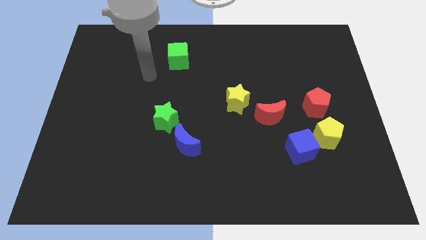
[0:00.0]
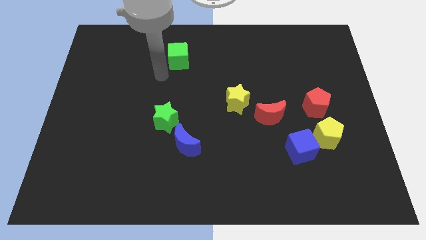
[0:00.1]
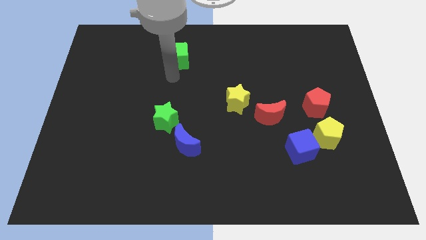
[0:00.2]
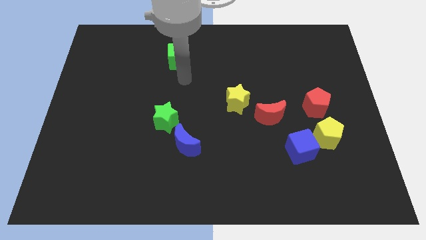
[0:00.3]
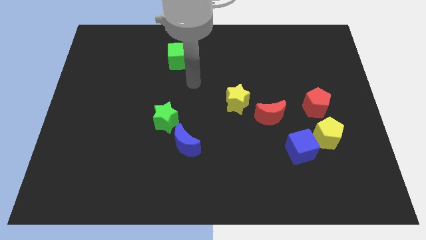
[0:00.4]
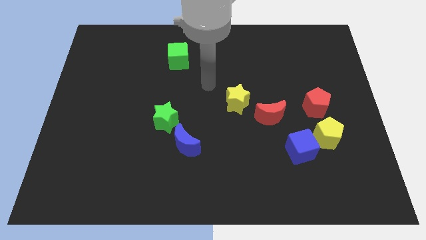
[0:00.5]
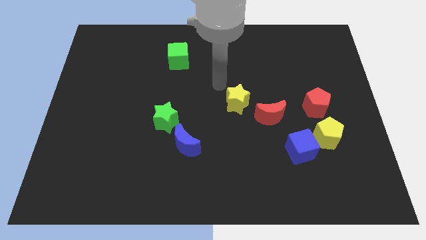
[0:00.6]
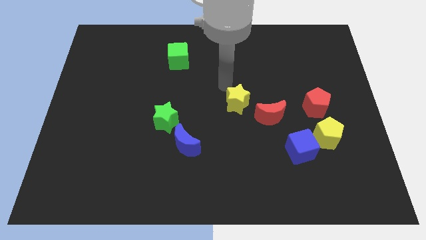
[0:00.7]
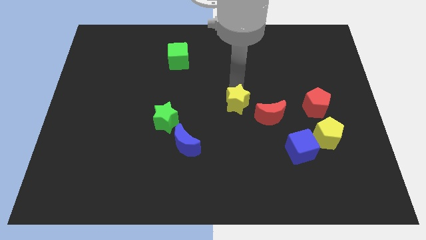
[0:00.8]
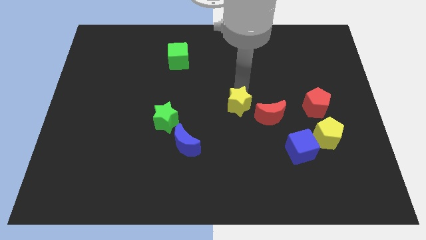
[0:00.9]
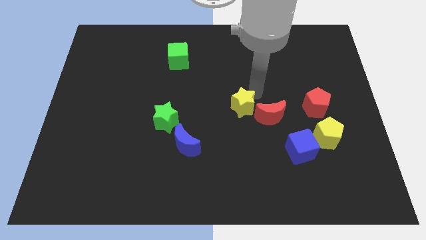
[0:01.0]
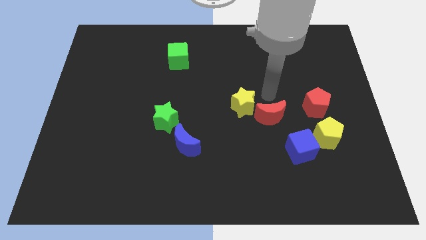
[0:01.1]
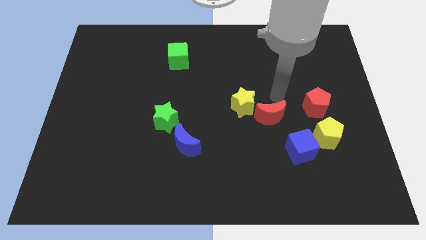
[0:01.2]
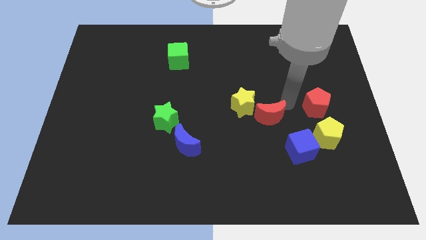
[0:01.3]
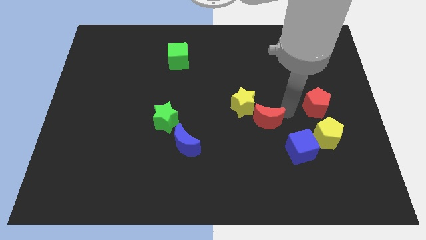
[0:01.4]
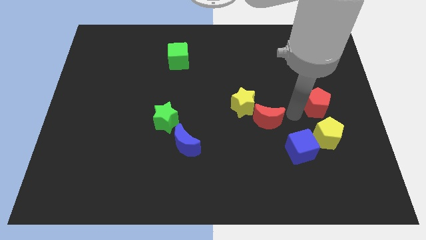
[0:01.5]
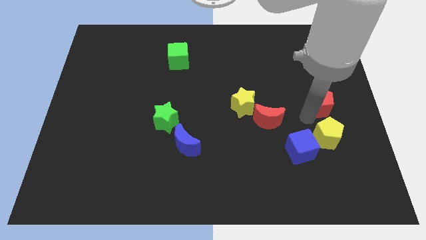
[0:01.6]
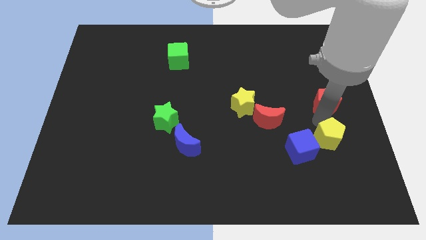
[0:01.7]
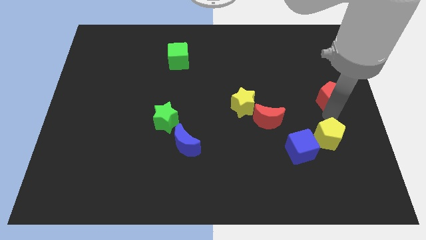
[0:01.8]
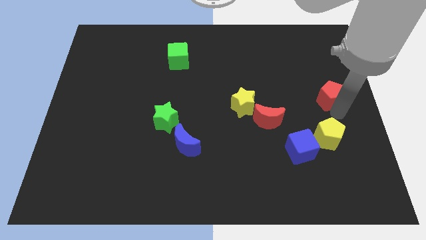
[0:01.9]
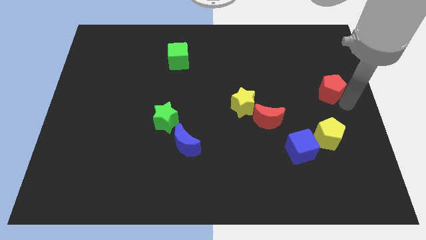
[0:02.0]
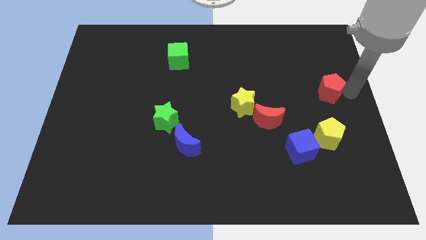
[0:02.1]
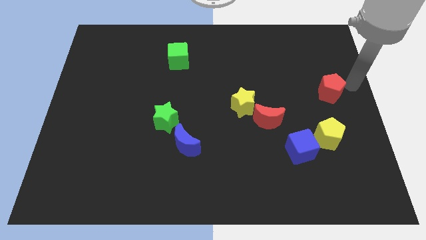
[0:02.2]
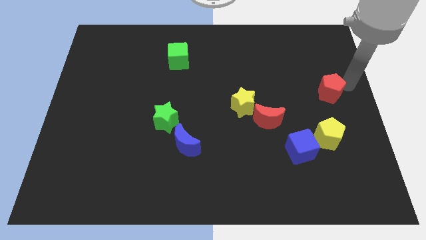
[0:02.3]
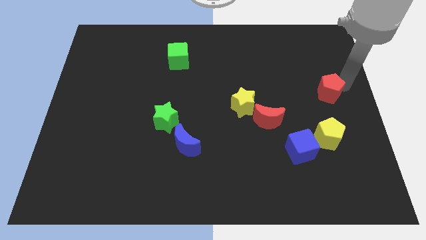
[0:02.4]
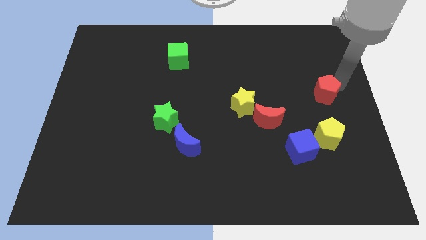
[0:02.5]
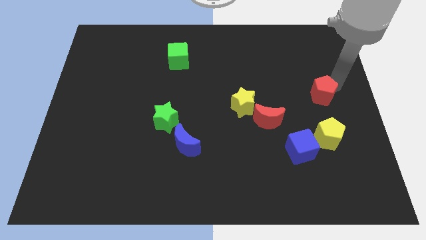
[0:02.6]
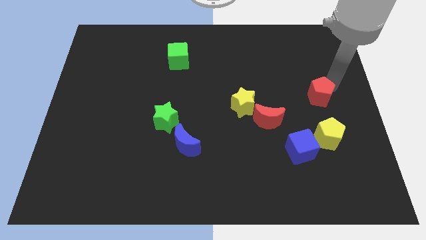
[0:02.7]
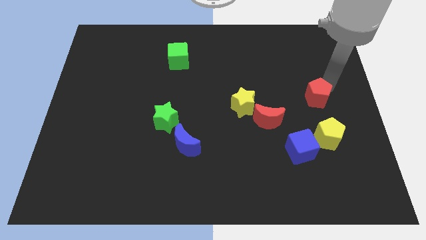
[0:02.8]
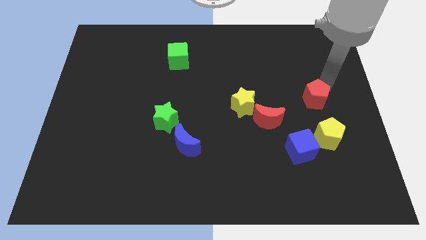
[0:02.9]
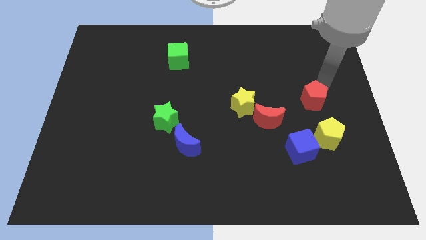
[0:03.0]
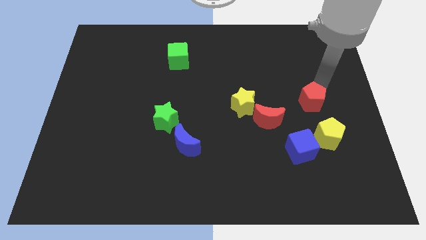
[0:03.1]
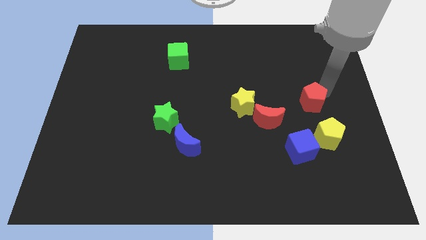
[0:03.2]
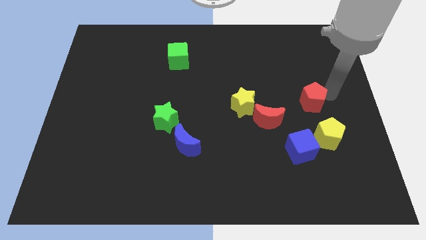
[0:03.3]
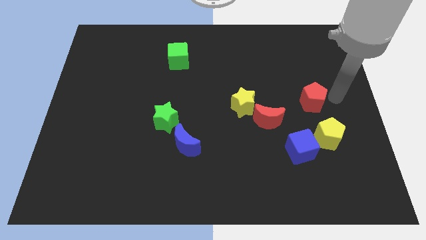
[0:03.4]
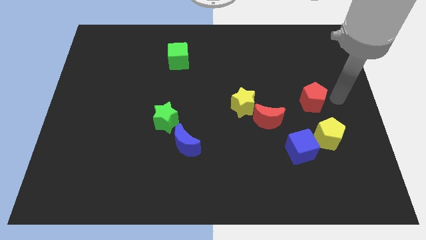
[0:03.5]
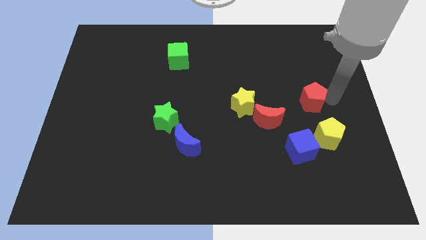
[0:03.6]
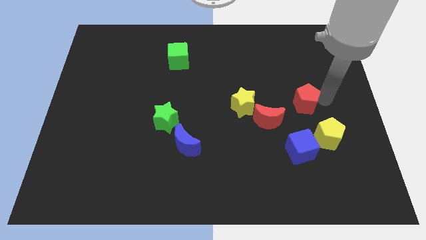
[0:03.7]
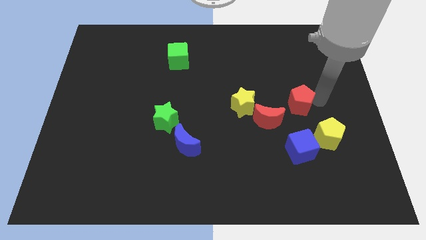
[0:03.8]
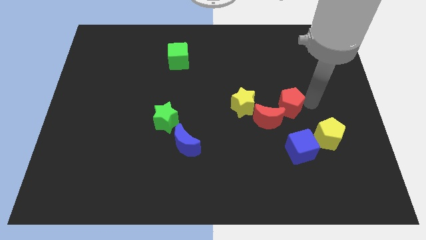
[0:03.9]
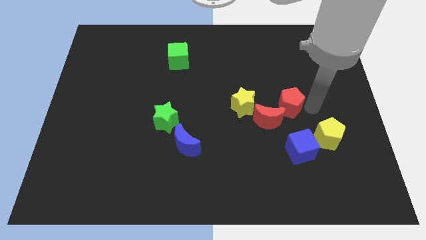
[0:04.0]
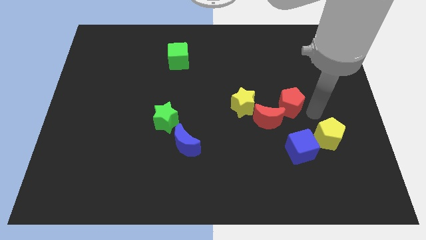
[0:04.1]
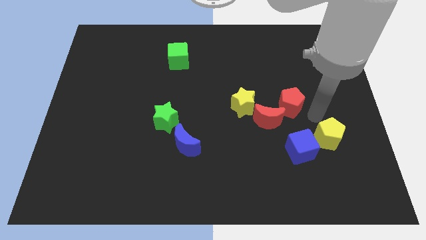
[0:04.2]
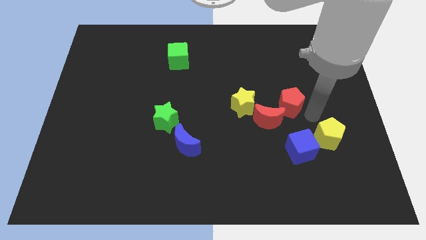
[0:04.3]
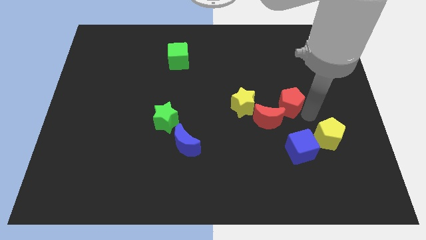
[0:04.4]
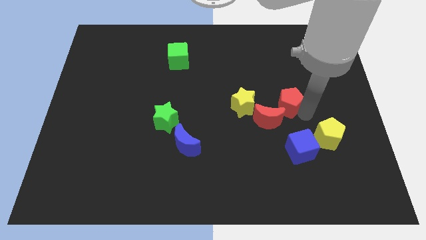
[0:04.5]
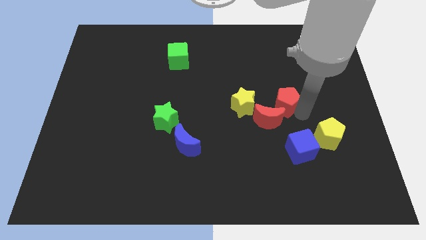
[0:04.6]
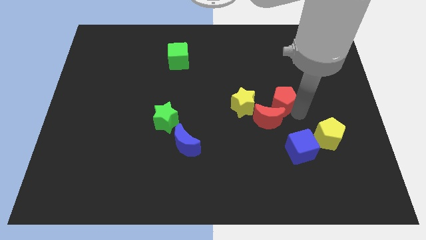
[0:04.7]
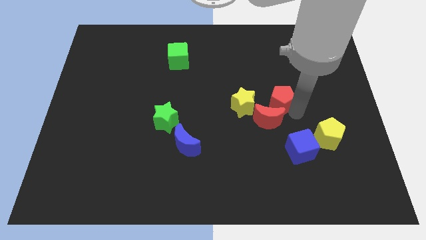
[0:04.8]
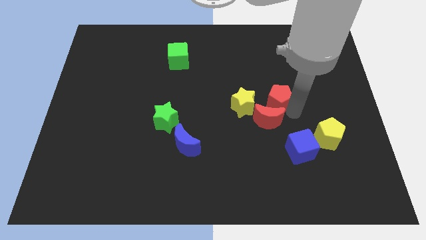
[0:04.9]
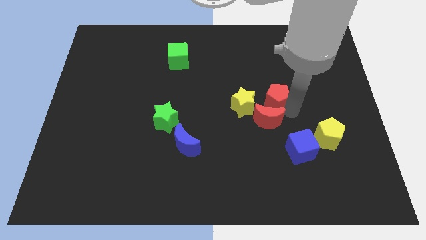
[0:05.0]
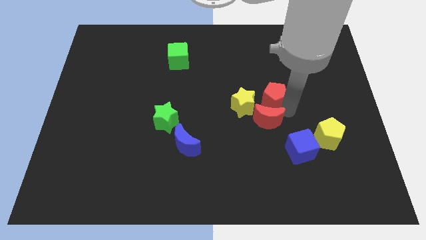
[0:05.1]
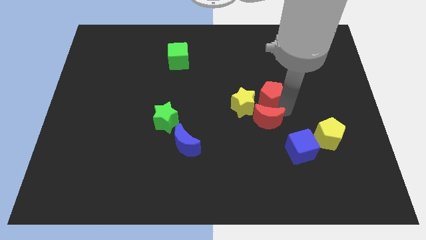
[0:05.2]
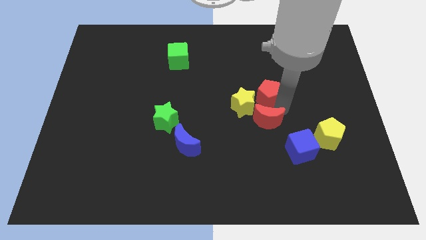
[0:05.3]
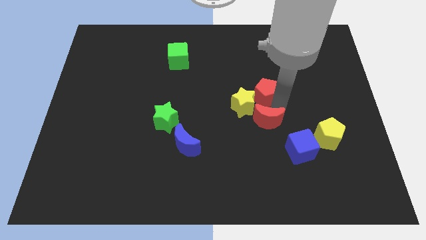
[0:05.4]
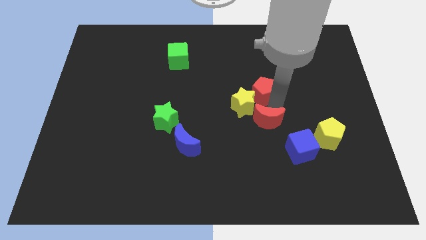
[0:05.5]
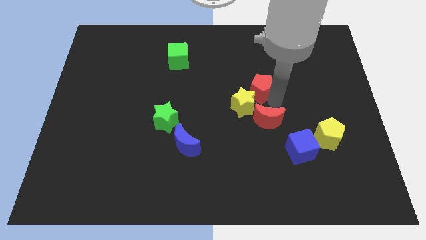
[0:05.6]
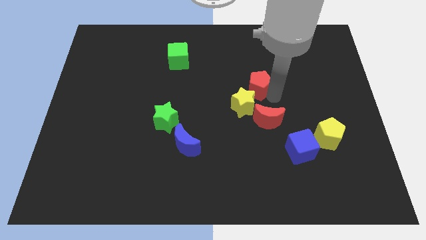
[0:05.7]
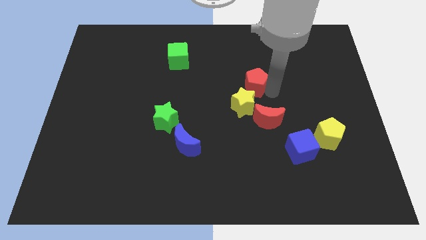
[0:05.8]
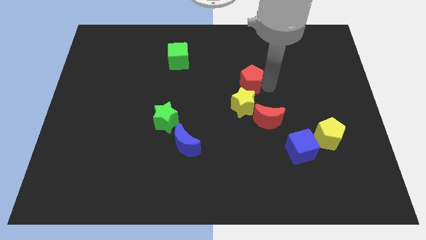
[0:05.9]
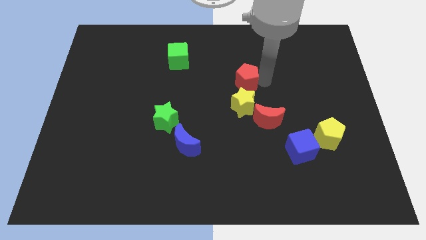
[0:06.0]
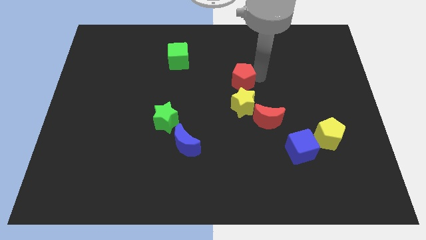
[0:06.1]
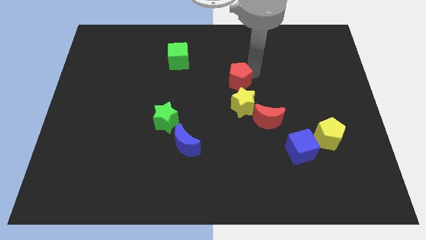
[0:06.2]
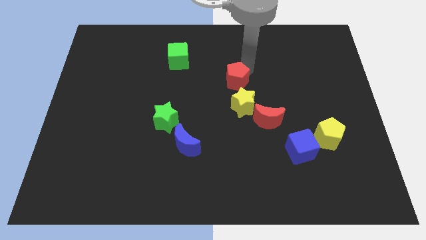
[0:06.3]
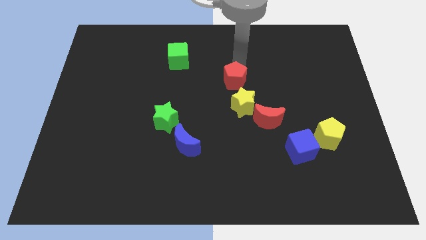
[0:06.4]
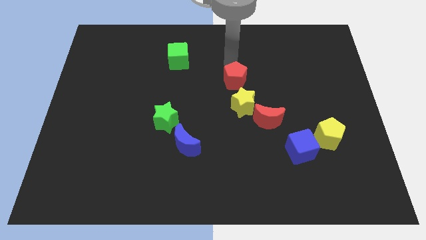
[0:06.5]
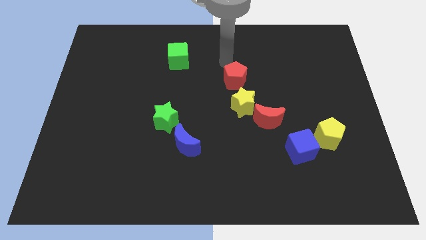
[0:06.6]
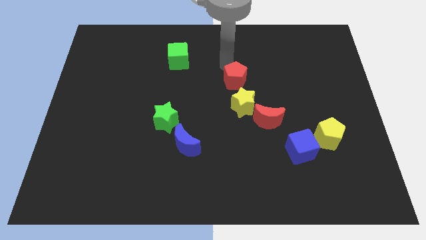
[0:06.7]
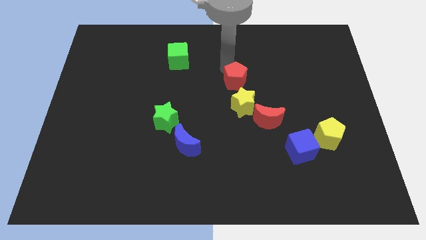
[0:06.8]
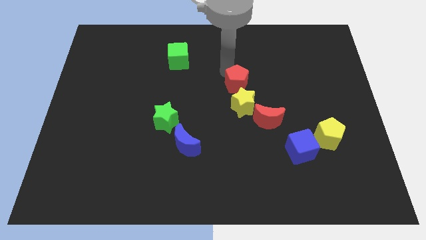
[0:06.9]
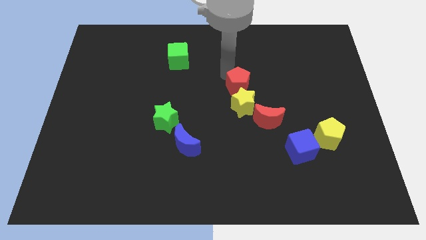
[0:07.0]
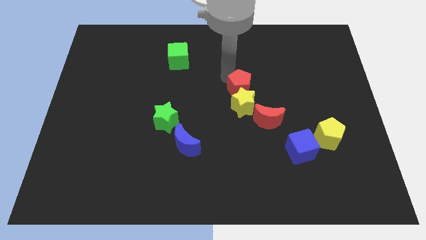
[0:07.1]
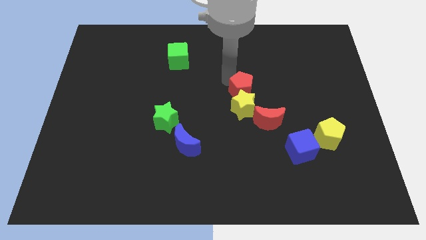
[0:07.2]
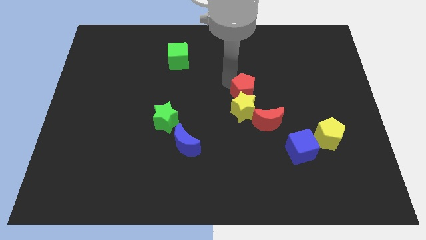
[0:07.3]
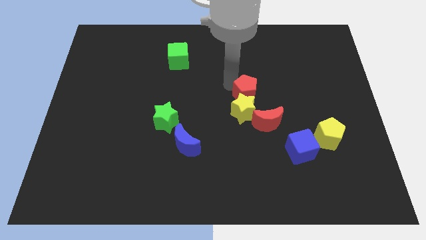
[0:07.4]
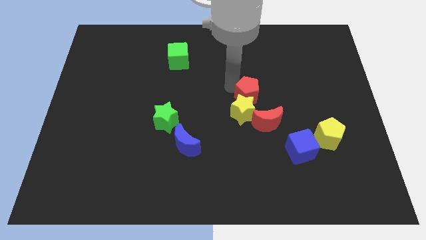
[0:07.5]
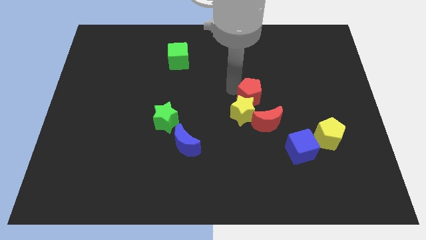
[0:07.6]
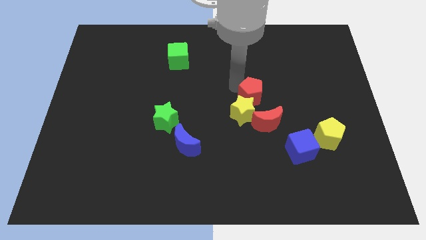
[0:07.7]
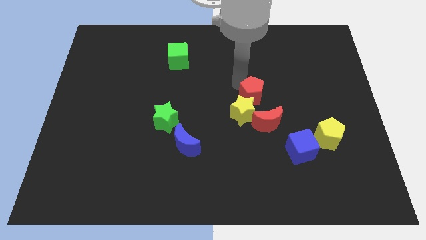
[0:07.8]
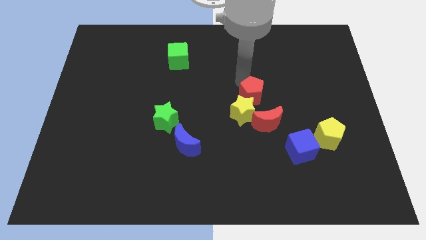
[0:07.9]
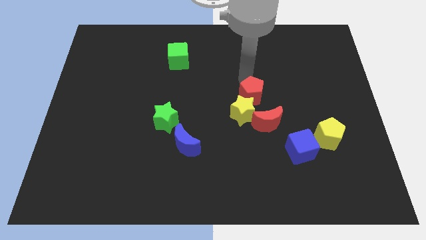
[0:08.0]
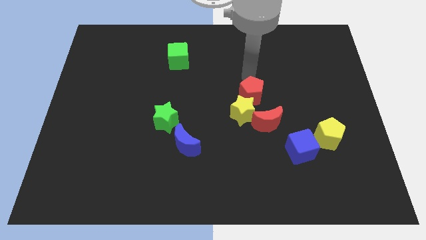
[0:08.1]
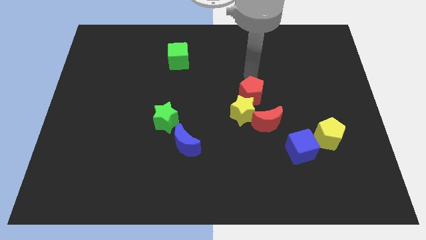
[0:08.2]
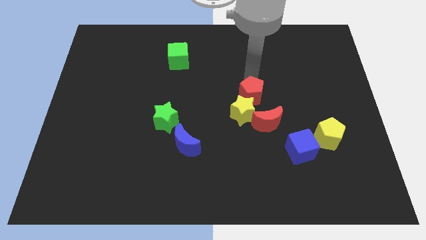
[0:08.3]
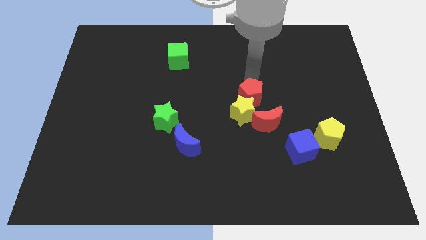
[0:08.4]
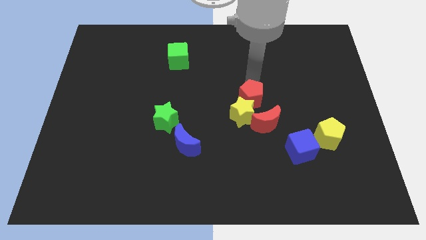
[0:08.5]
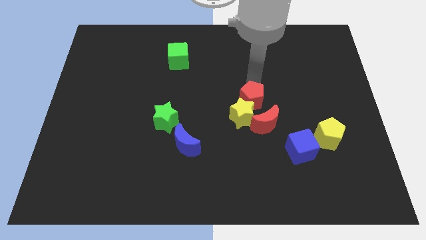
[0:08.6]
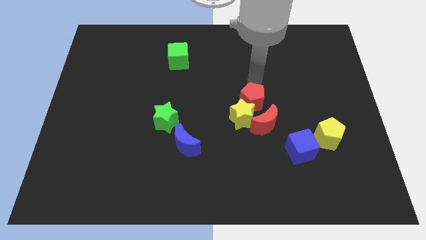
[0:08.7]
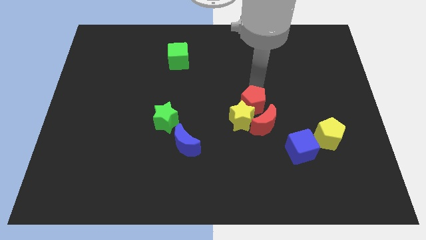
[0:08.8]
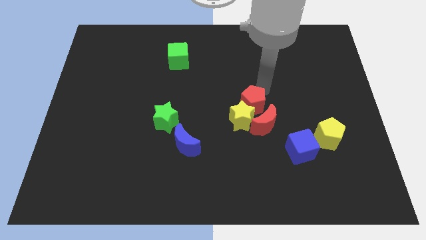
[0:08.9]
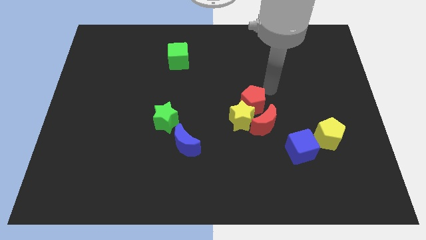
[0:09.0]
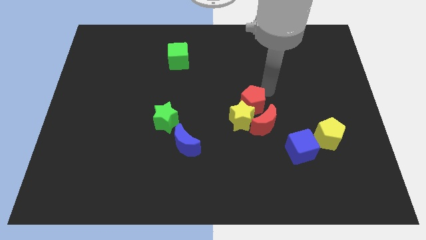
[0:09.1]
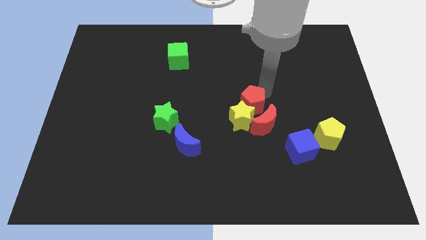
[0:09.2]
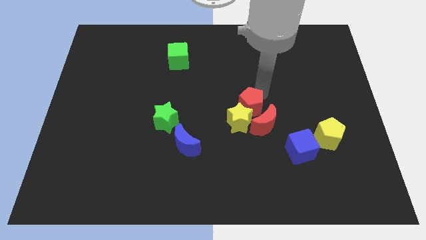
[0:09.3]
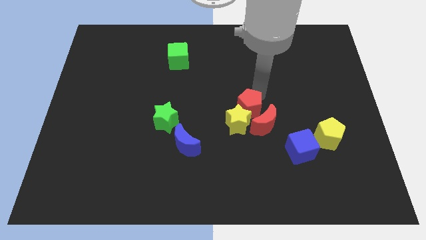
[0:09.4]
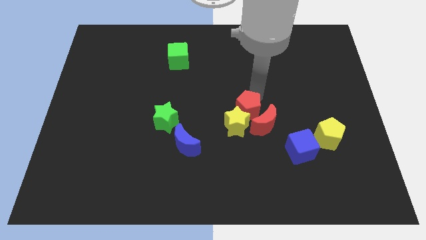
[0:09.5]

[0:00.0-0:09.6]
move the red pentagon just left of the red moon
